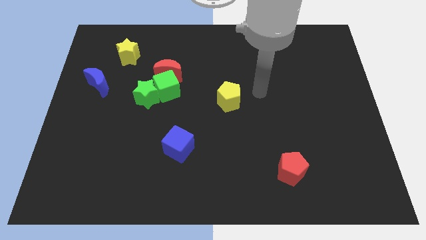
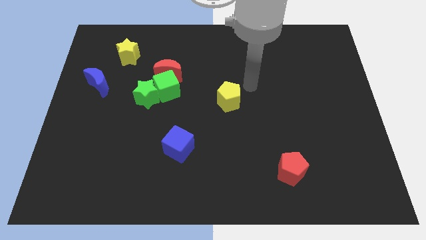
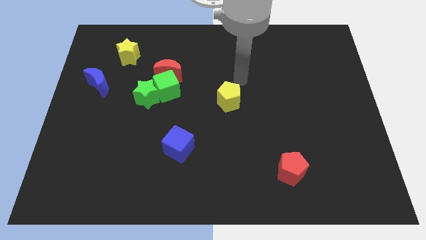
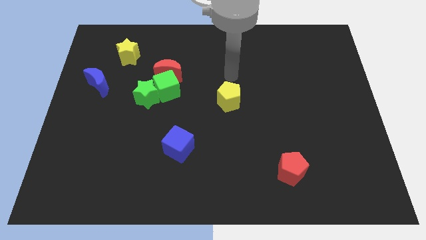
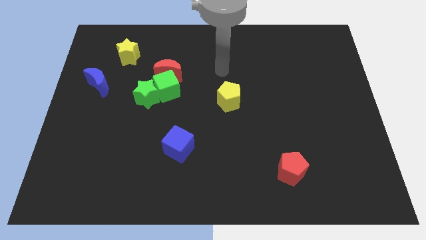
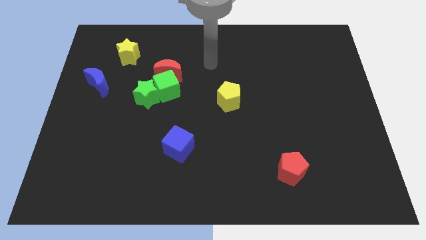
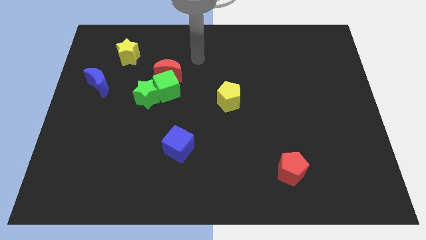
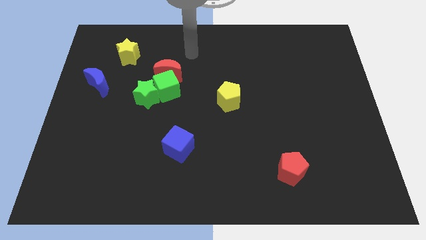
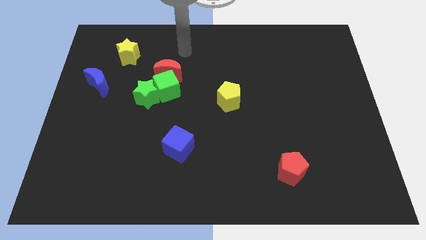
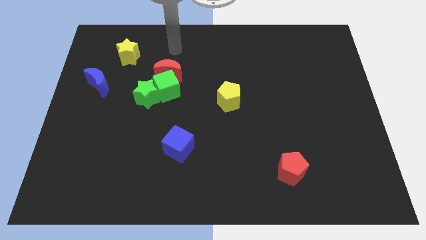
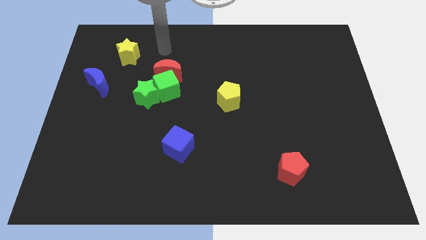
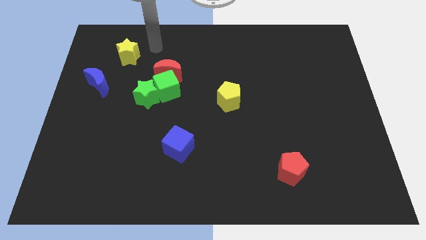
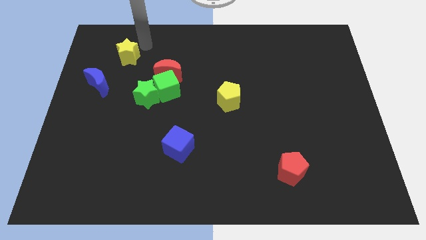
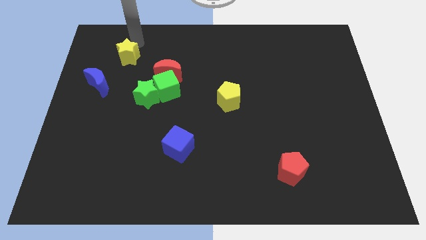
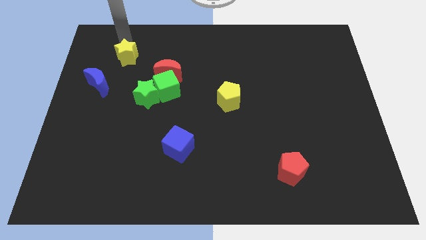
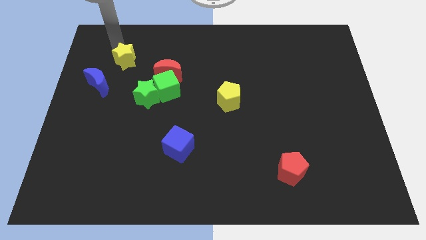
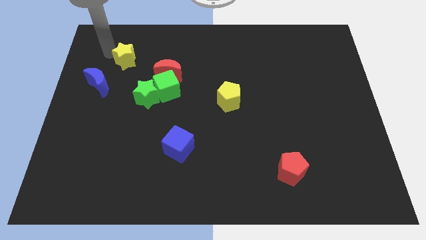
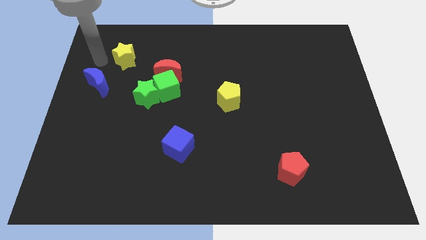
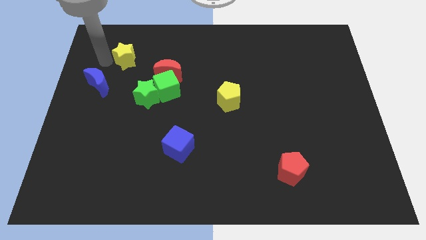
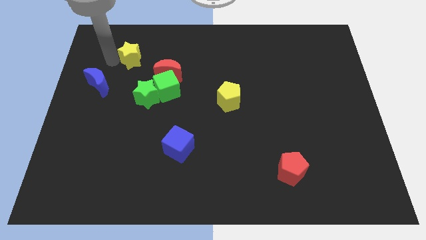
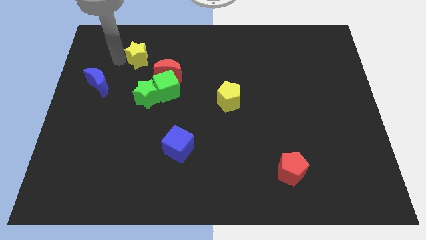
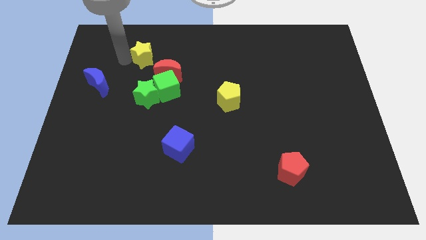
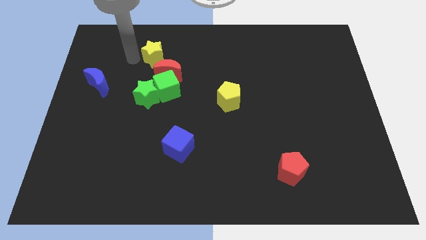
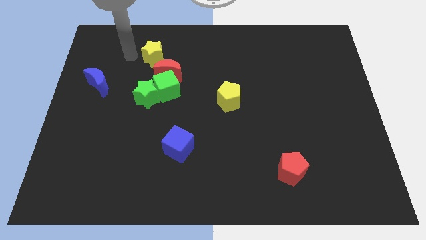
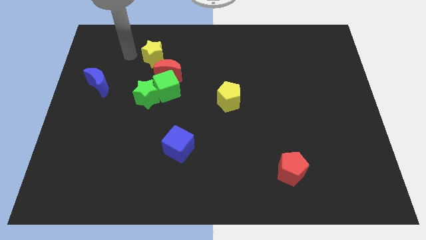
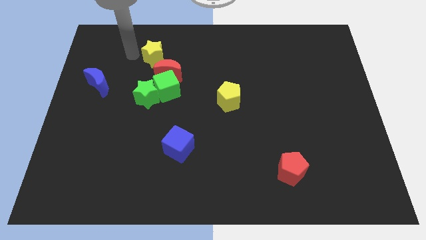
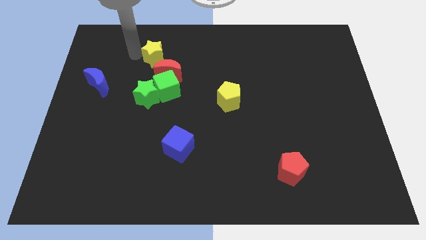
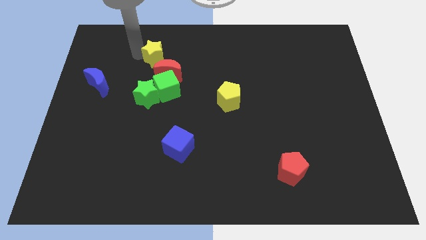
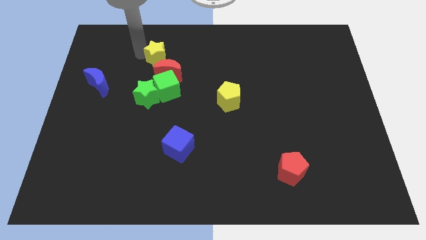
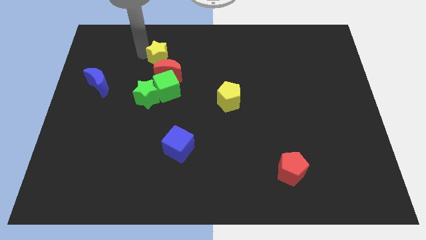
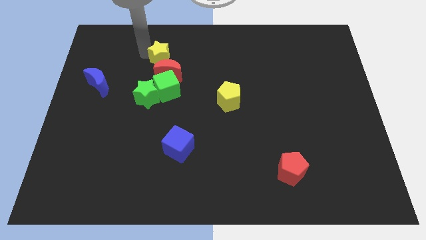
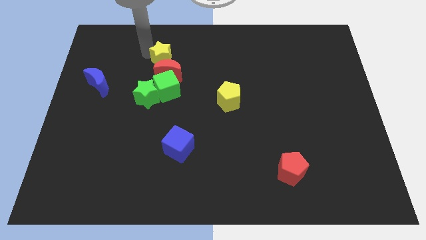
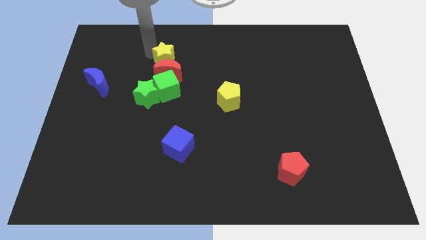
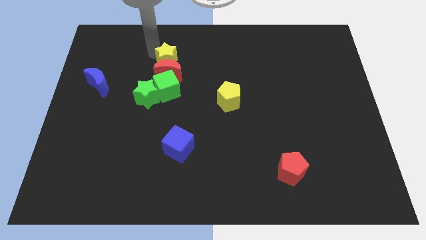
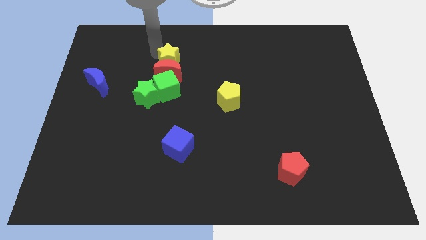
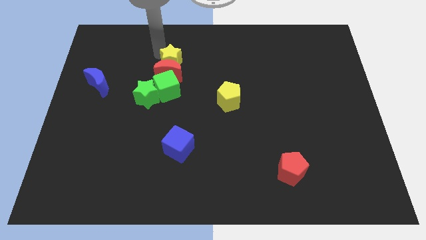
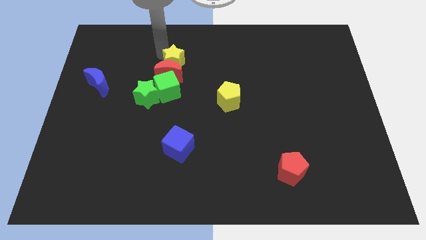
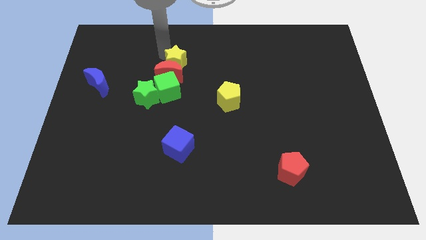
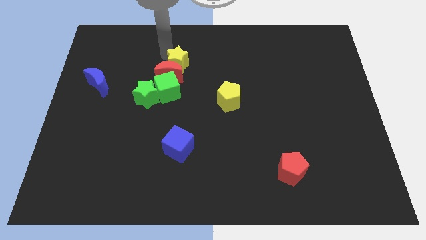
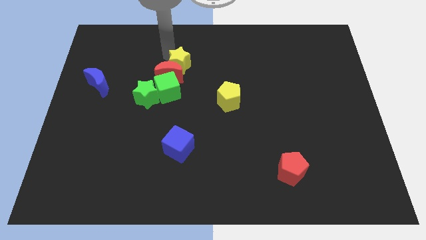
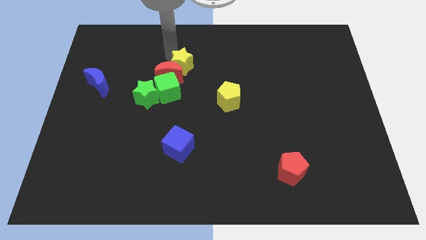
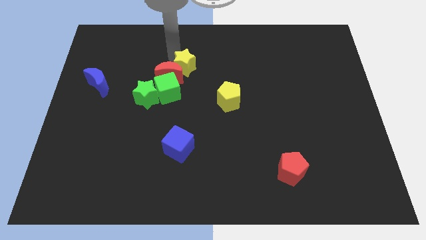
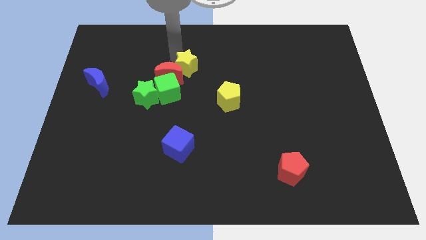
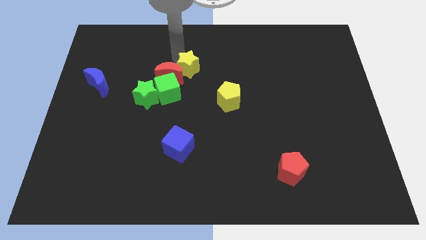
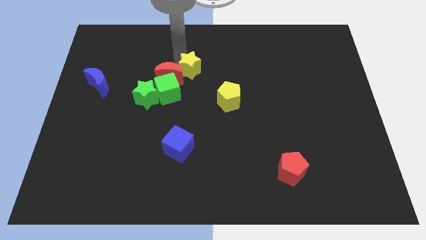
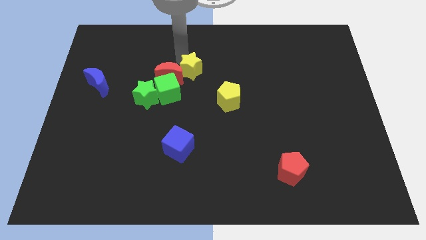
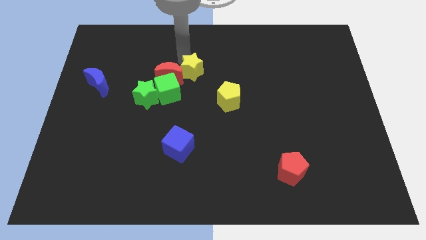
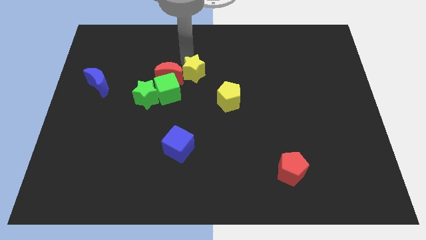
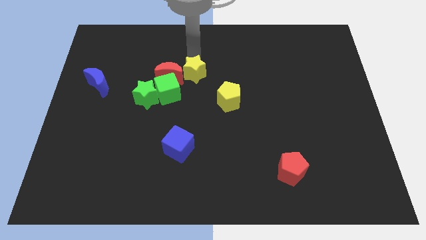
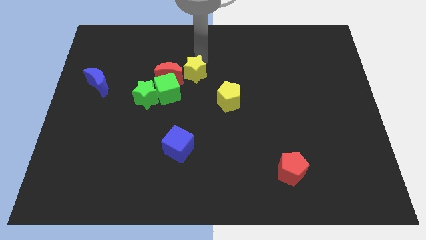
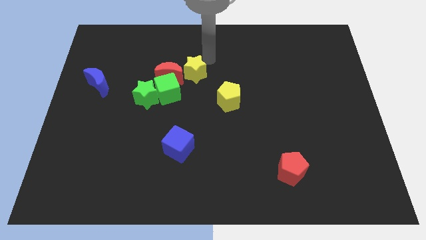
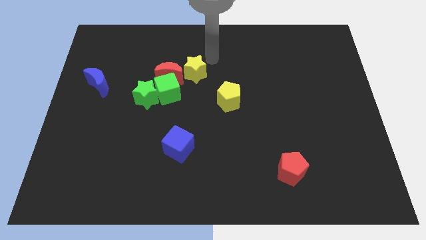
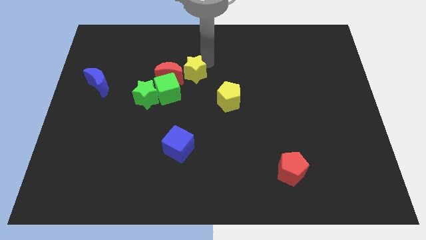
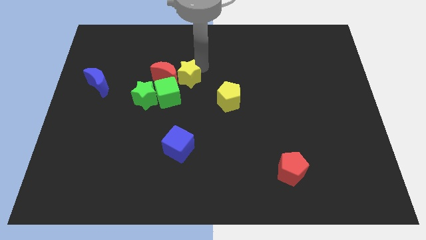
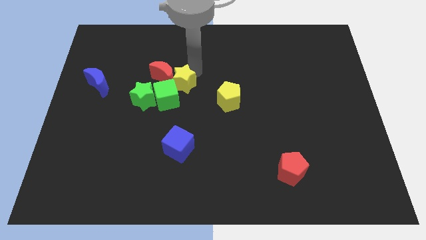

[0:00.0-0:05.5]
push the yellow star to the green cube

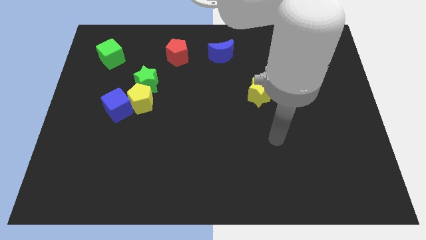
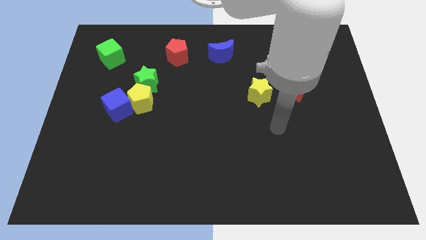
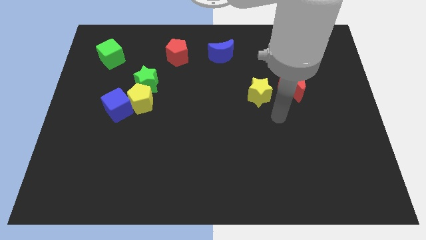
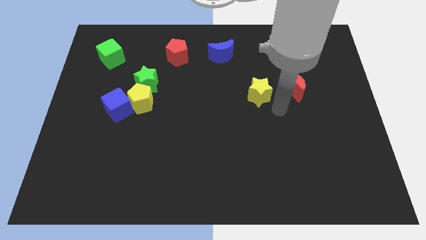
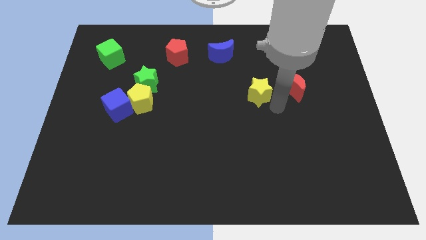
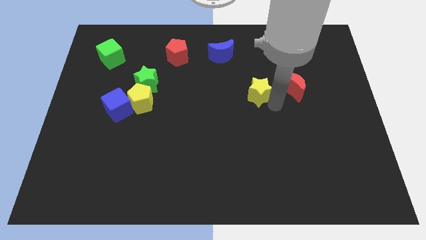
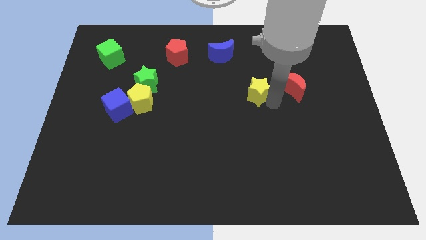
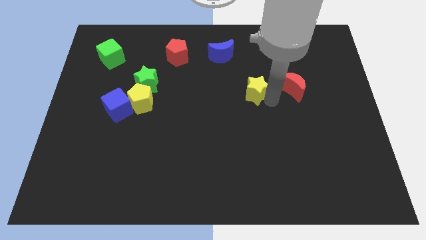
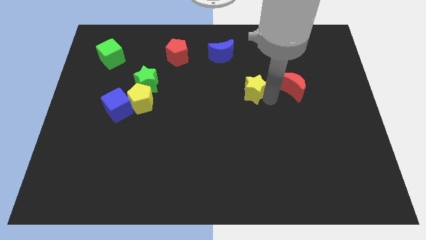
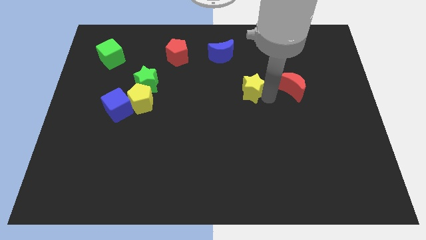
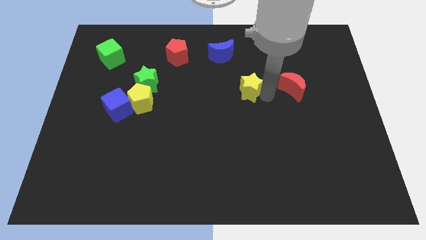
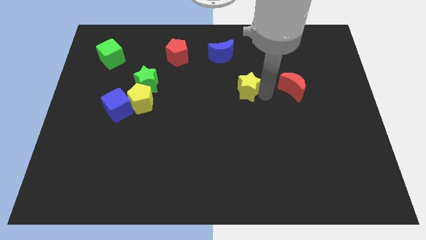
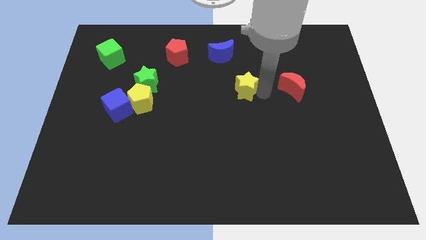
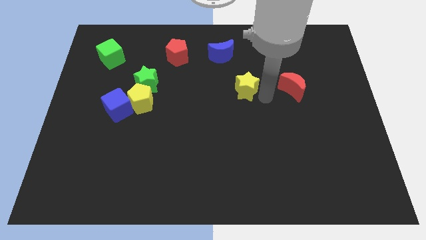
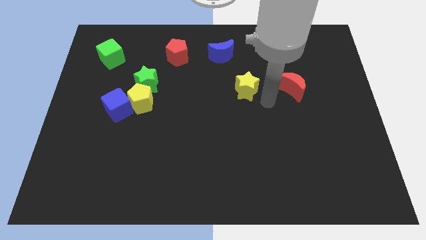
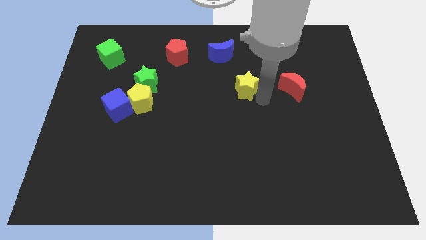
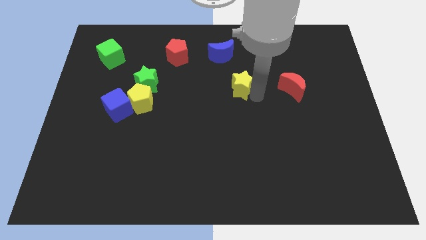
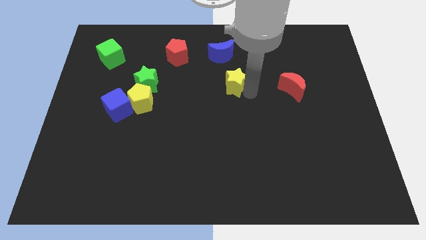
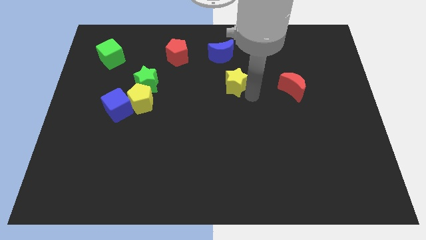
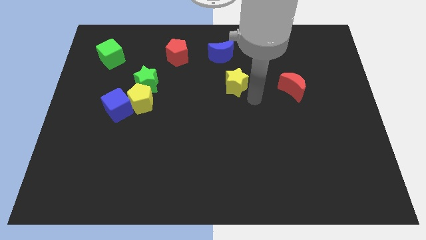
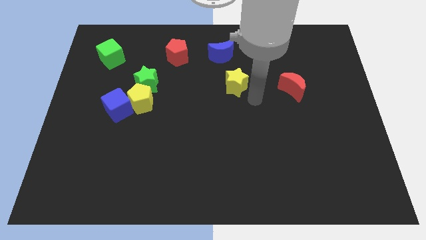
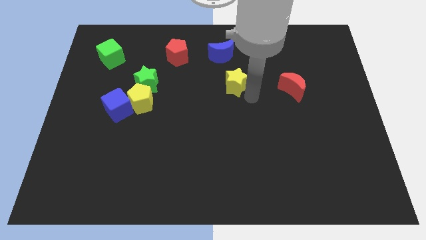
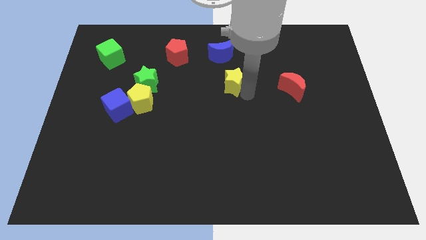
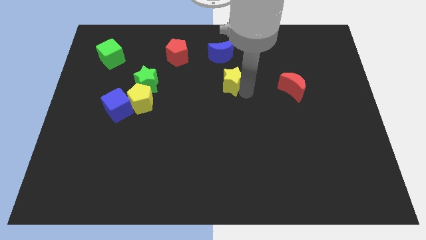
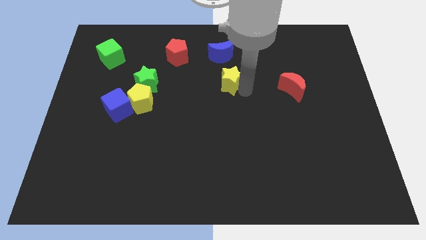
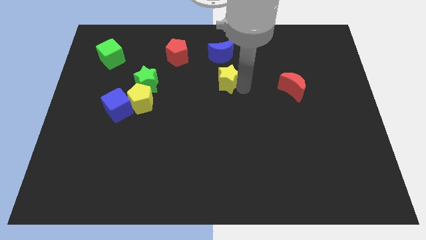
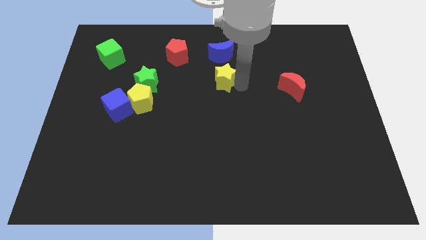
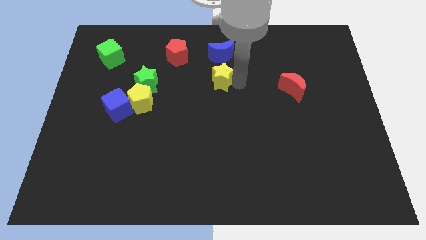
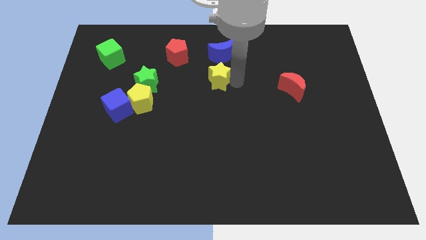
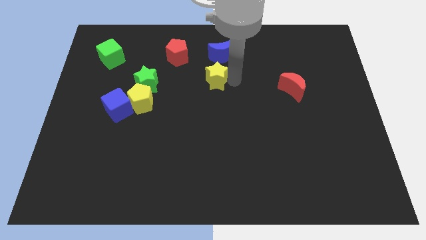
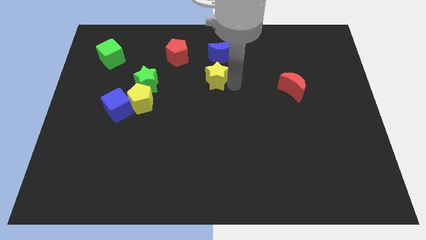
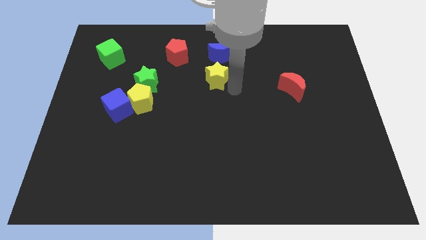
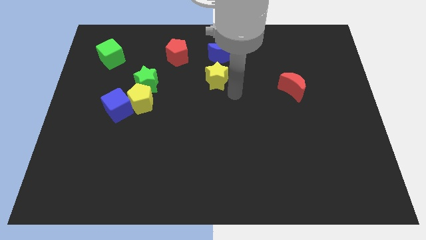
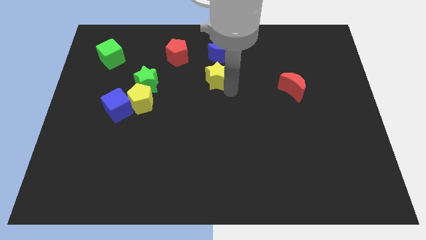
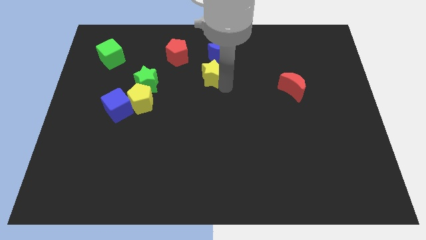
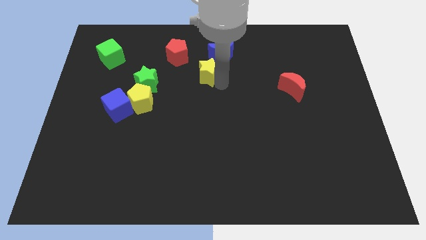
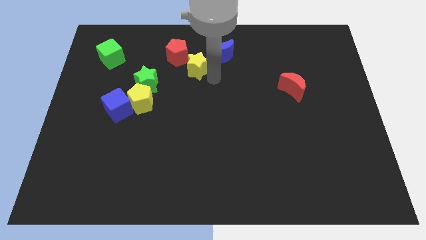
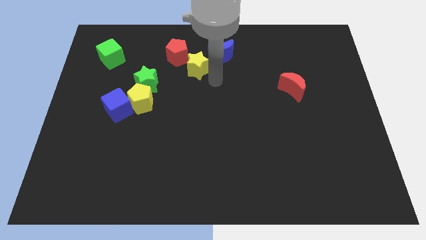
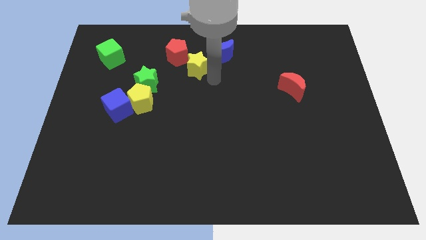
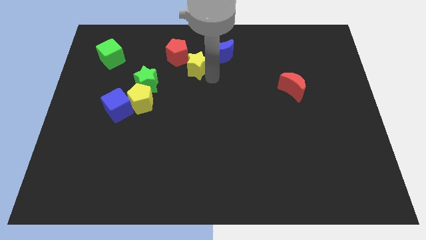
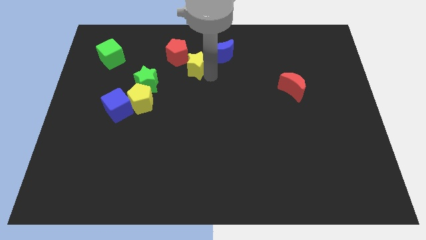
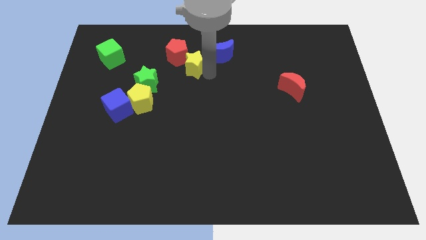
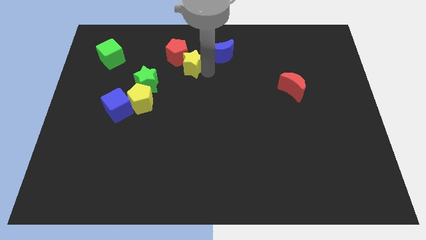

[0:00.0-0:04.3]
push the yellow star towards the red pentagon
